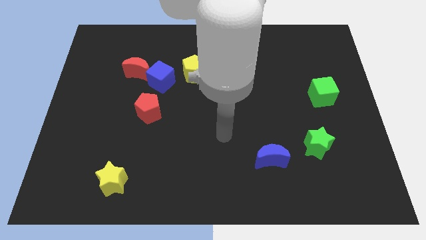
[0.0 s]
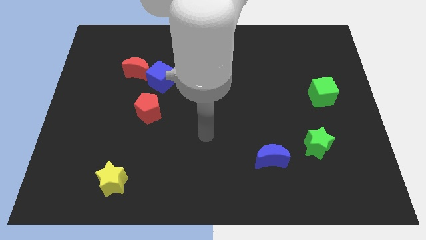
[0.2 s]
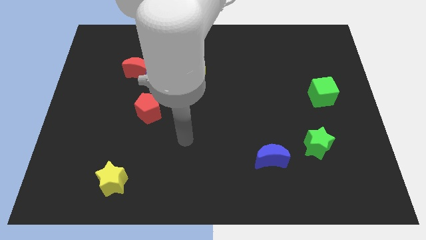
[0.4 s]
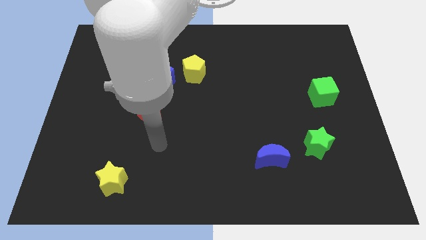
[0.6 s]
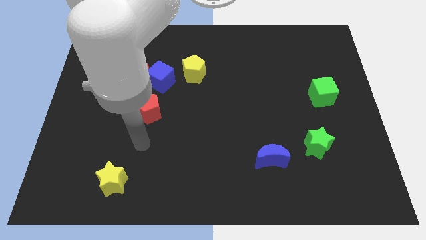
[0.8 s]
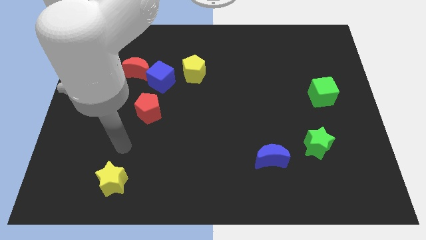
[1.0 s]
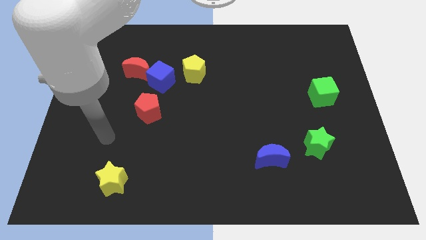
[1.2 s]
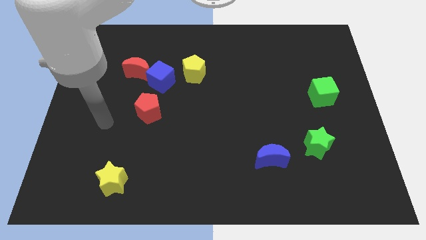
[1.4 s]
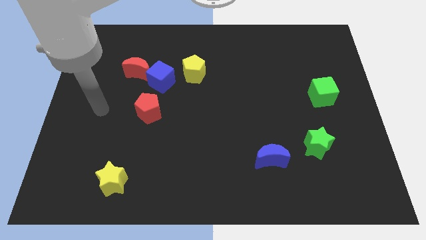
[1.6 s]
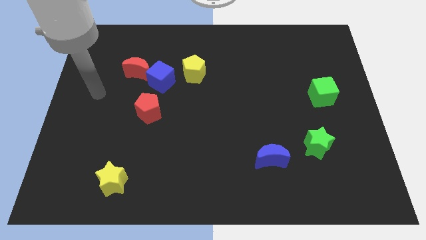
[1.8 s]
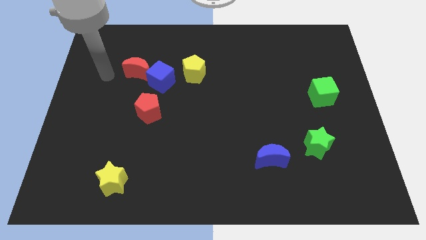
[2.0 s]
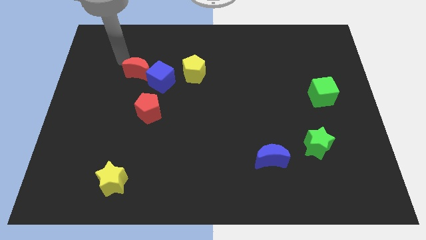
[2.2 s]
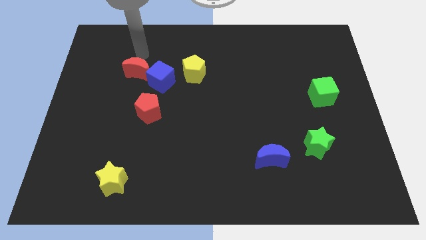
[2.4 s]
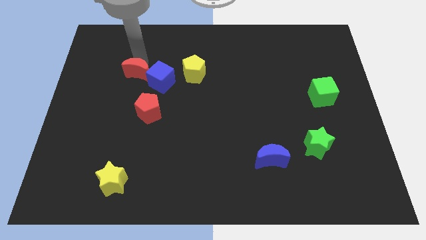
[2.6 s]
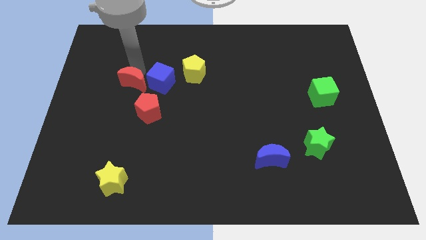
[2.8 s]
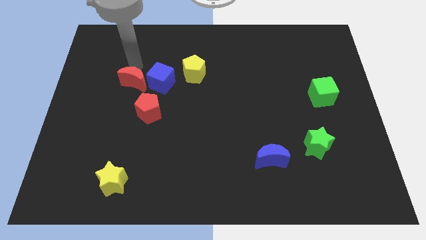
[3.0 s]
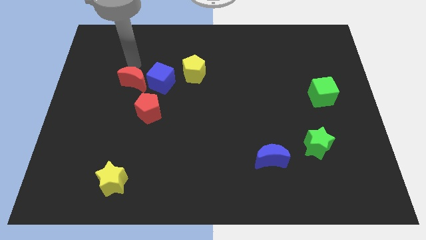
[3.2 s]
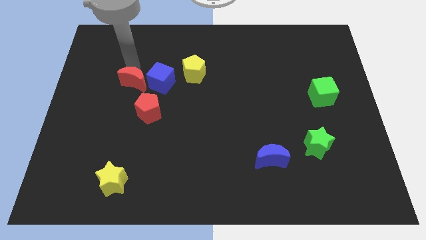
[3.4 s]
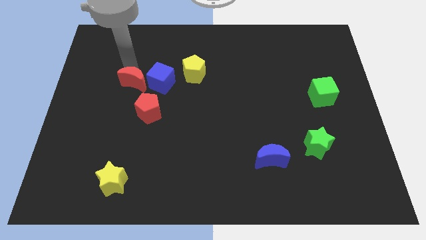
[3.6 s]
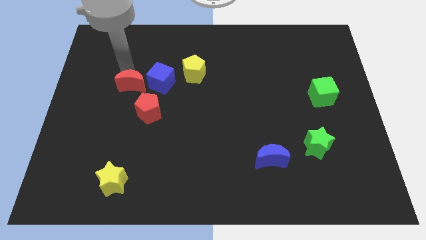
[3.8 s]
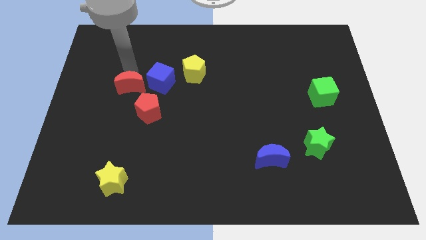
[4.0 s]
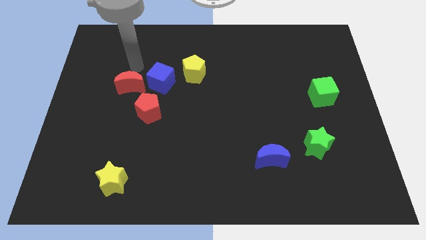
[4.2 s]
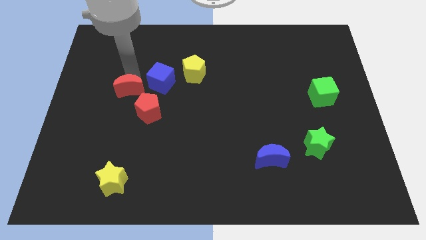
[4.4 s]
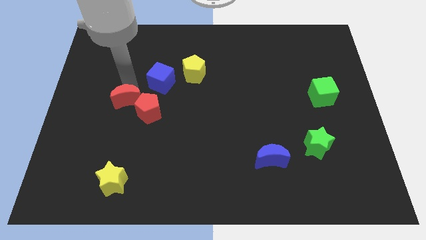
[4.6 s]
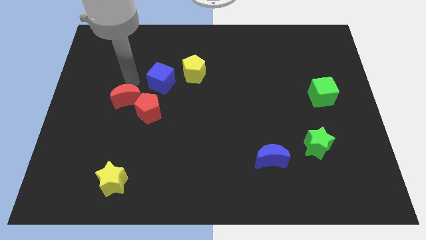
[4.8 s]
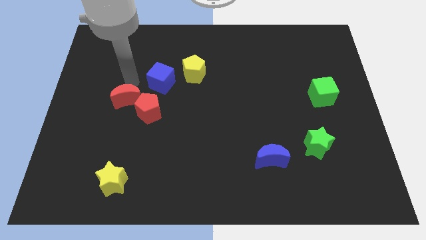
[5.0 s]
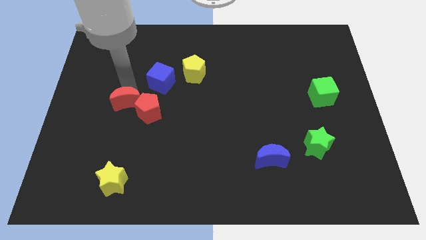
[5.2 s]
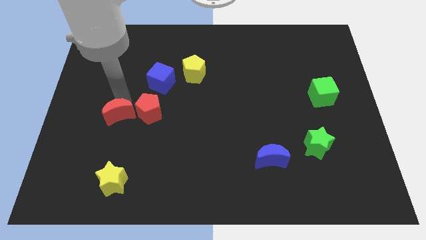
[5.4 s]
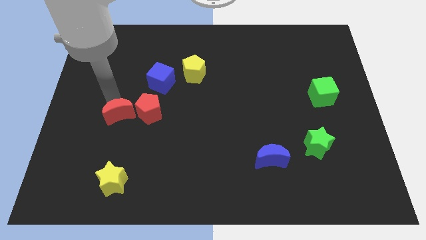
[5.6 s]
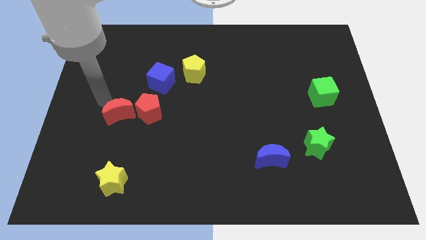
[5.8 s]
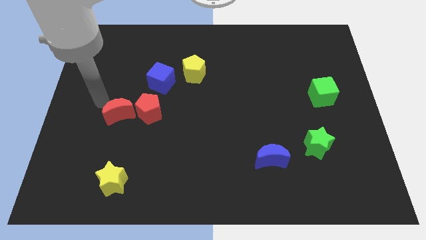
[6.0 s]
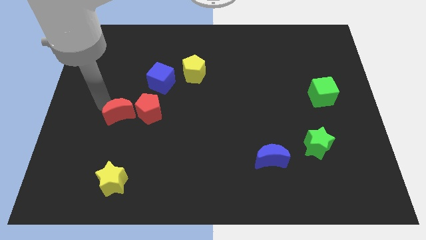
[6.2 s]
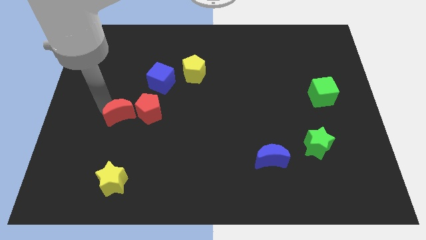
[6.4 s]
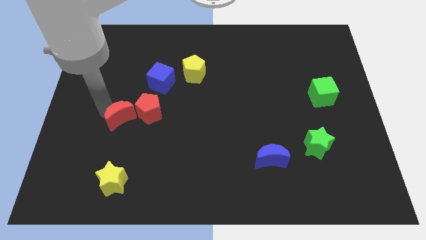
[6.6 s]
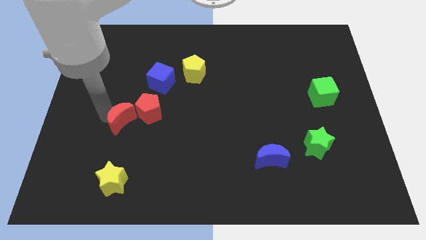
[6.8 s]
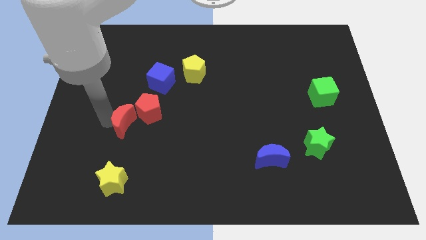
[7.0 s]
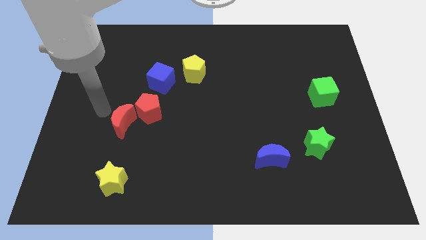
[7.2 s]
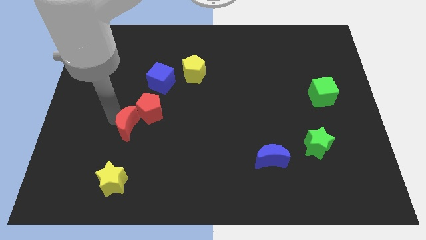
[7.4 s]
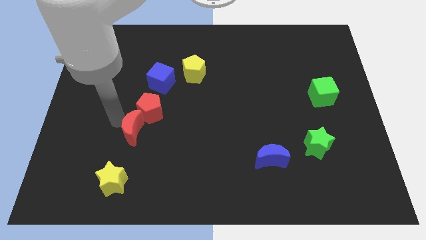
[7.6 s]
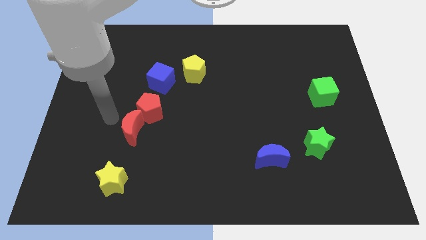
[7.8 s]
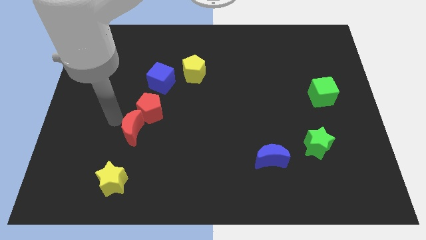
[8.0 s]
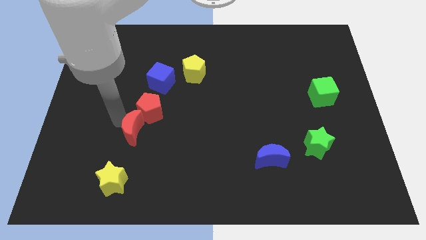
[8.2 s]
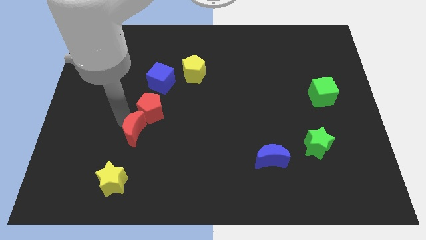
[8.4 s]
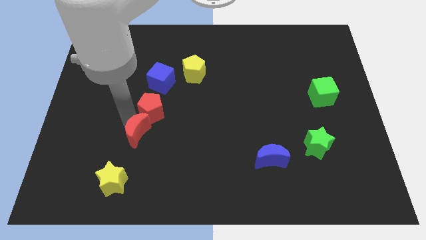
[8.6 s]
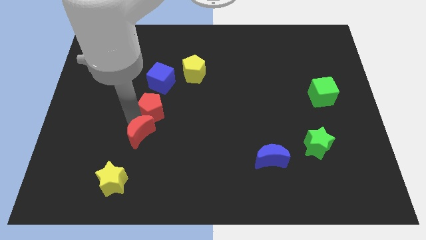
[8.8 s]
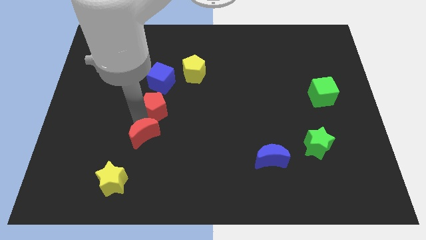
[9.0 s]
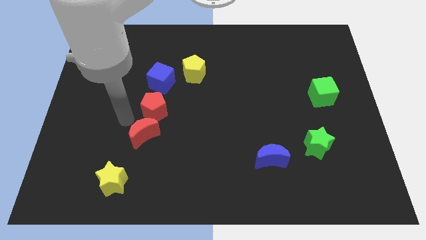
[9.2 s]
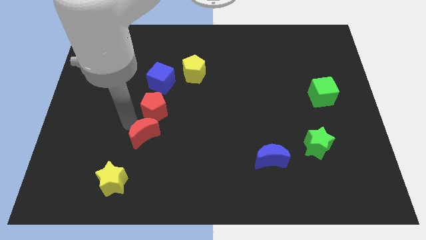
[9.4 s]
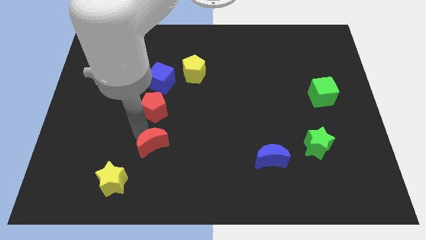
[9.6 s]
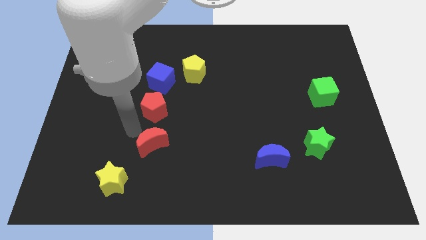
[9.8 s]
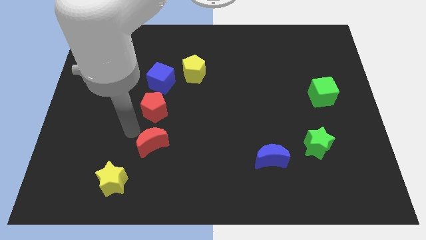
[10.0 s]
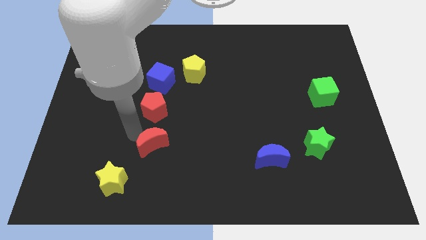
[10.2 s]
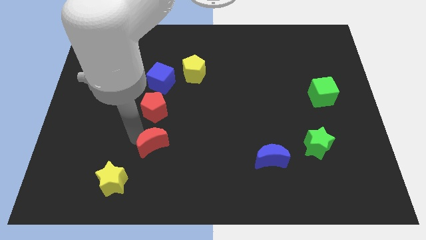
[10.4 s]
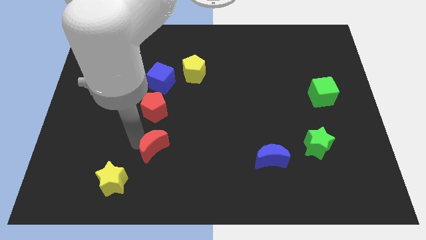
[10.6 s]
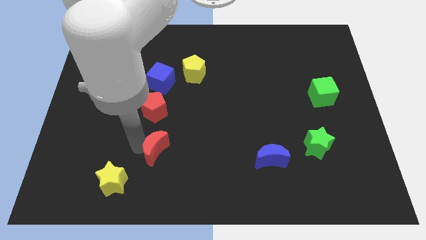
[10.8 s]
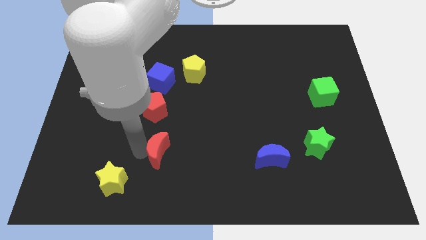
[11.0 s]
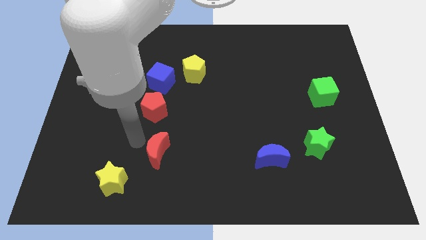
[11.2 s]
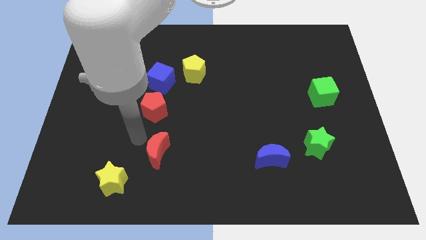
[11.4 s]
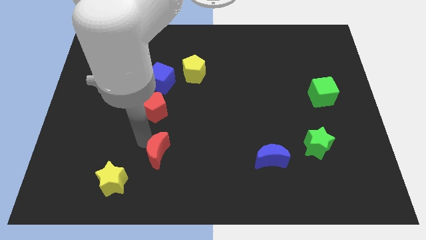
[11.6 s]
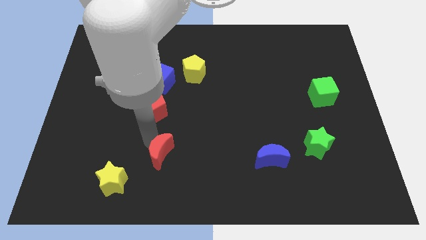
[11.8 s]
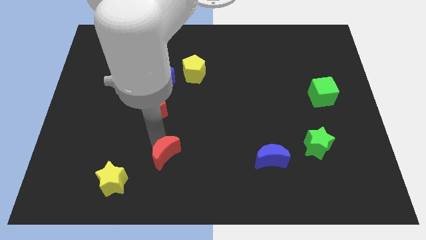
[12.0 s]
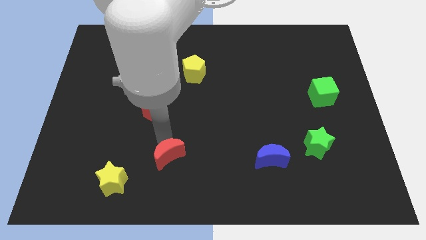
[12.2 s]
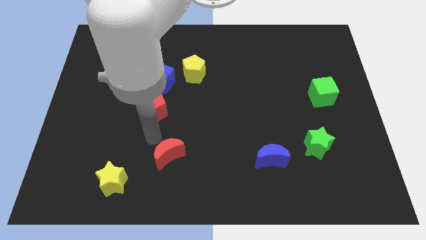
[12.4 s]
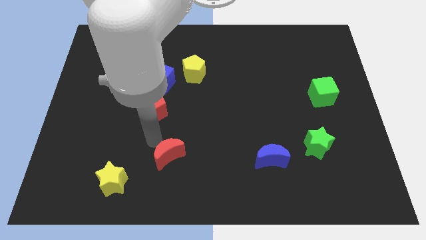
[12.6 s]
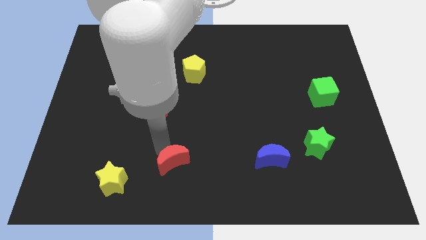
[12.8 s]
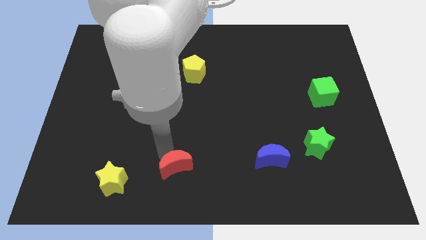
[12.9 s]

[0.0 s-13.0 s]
put the red moon to the bottom side
